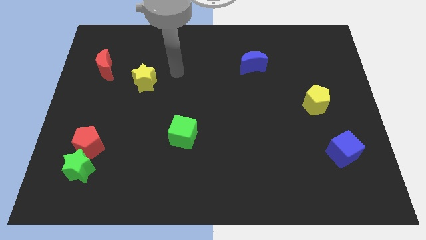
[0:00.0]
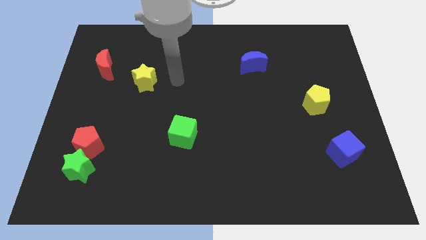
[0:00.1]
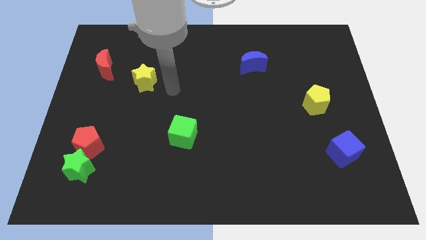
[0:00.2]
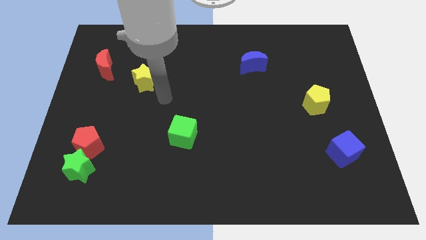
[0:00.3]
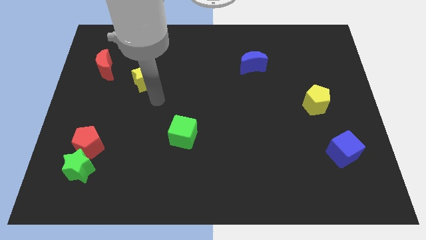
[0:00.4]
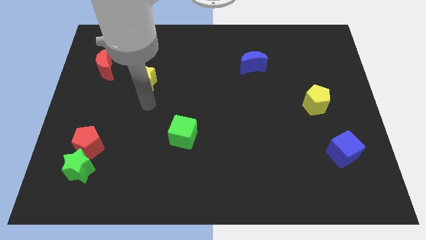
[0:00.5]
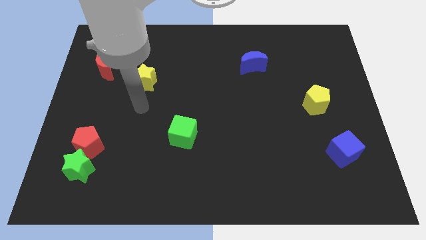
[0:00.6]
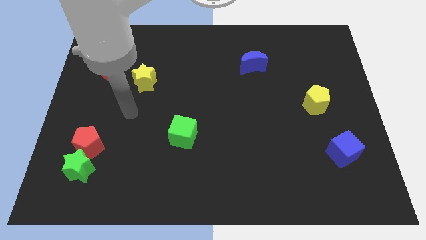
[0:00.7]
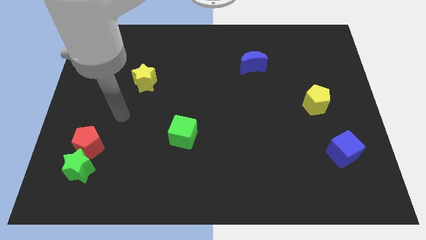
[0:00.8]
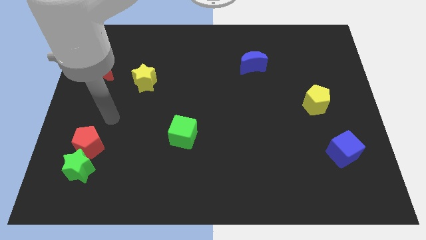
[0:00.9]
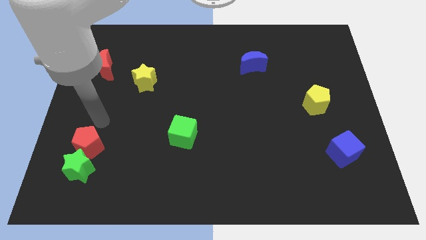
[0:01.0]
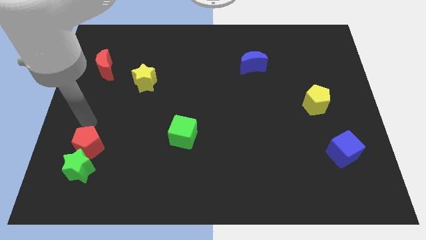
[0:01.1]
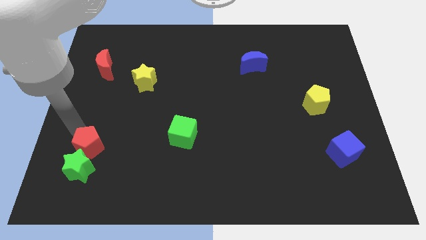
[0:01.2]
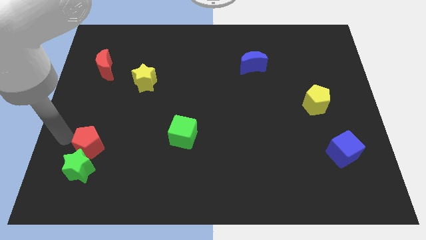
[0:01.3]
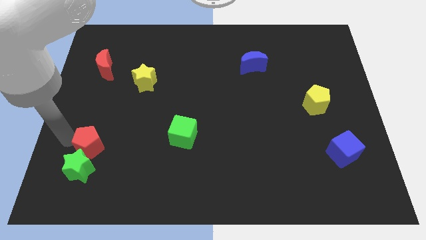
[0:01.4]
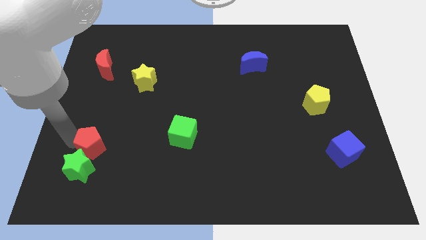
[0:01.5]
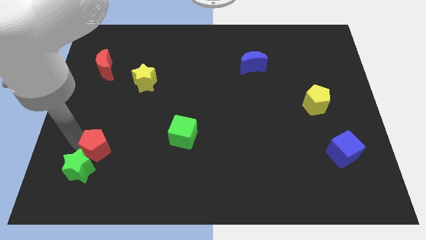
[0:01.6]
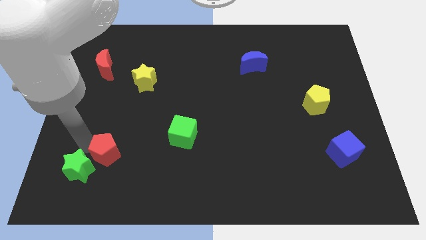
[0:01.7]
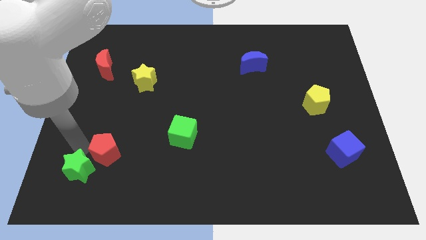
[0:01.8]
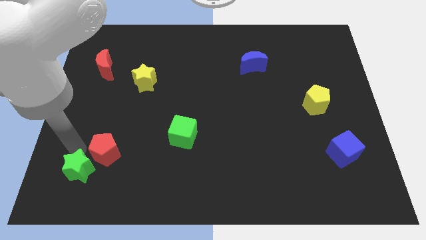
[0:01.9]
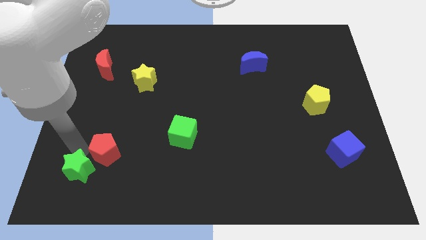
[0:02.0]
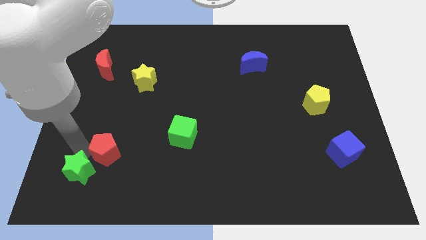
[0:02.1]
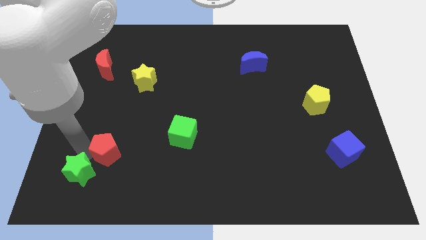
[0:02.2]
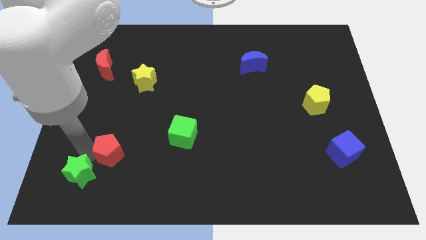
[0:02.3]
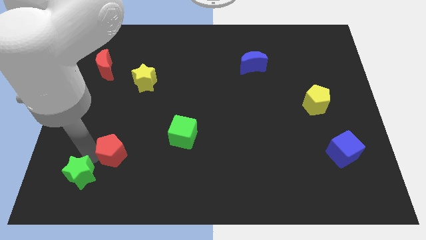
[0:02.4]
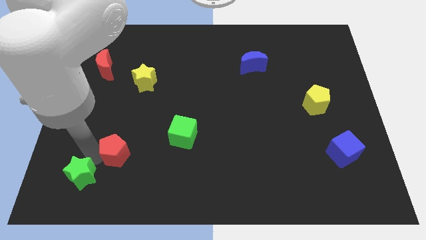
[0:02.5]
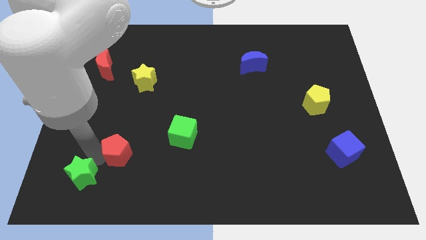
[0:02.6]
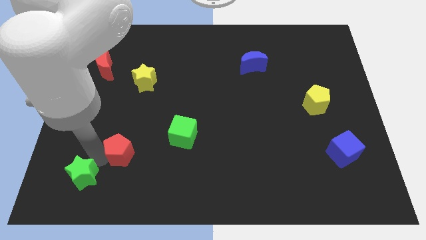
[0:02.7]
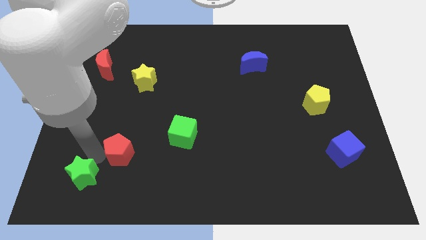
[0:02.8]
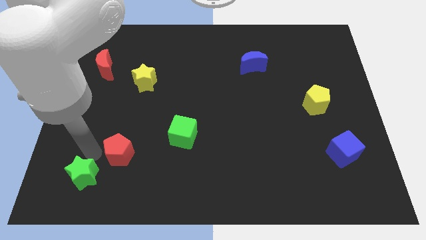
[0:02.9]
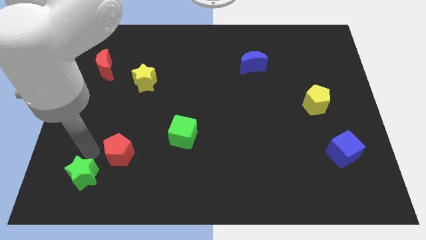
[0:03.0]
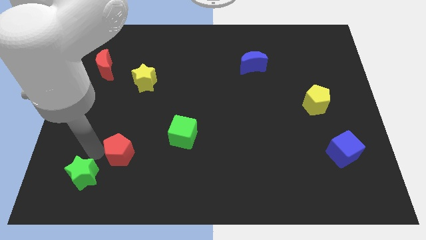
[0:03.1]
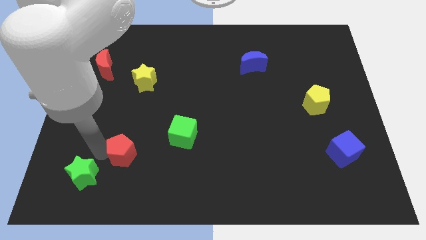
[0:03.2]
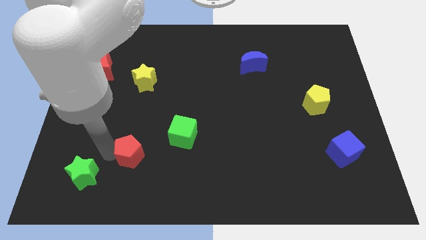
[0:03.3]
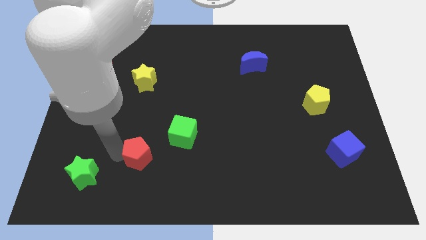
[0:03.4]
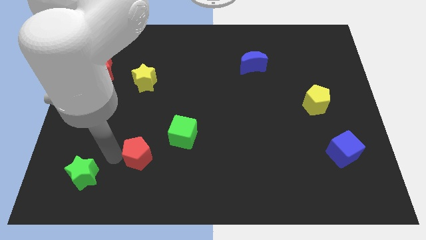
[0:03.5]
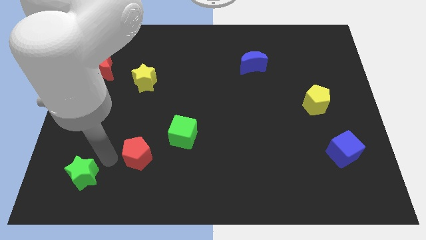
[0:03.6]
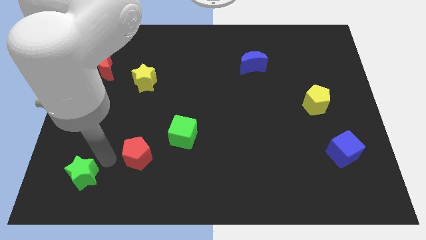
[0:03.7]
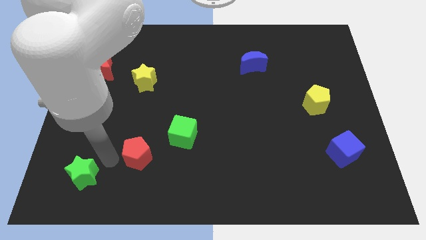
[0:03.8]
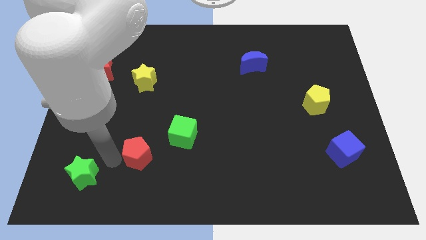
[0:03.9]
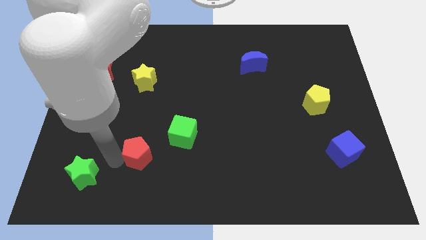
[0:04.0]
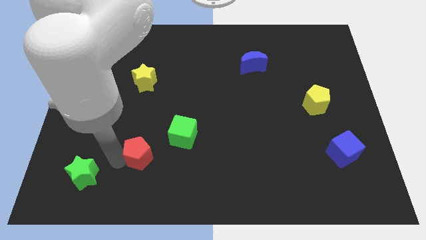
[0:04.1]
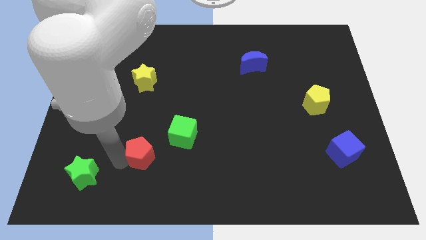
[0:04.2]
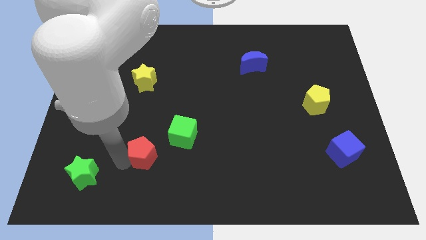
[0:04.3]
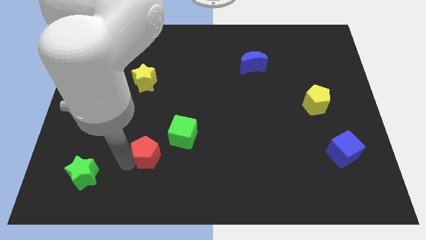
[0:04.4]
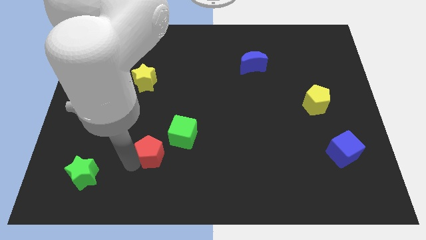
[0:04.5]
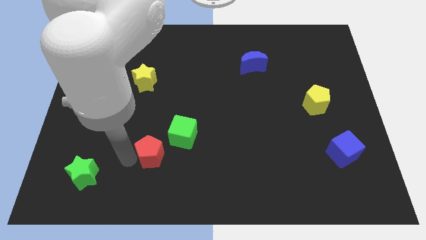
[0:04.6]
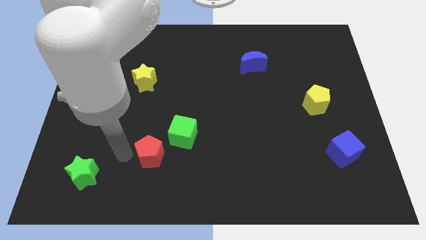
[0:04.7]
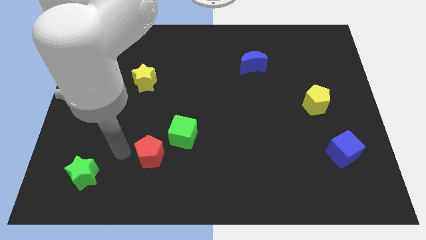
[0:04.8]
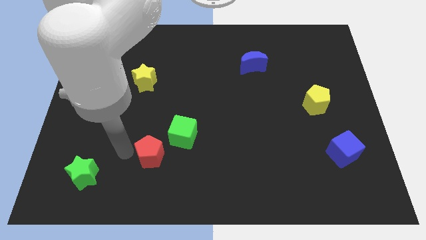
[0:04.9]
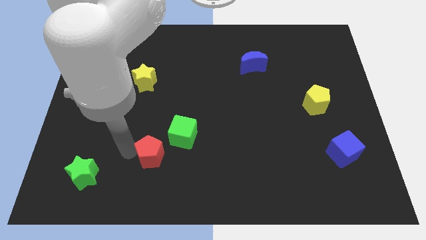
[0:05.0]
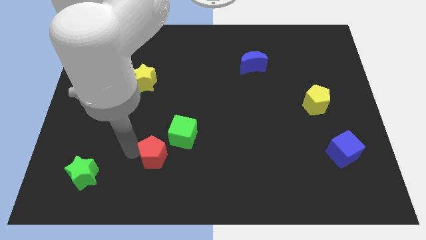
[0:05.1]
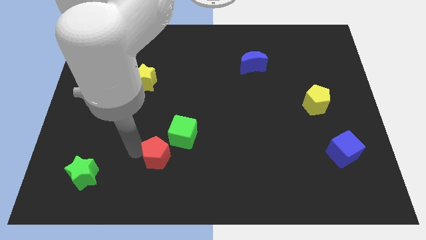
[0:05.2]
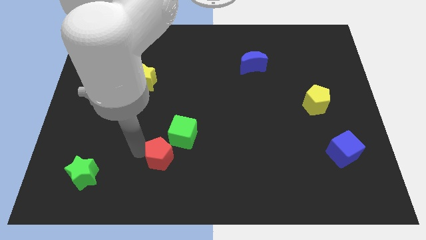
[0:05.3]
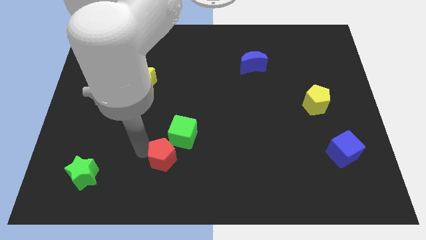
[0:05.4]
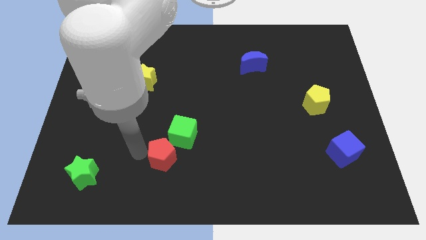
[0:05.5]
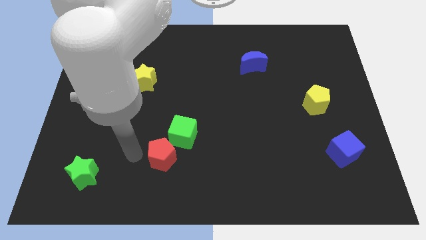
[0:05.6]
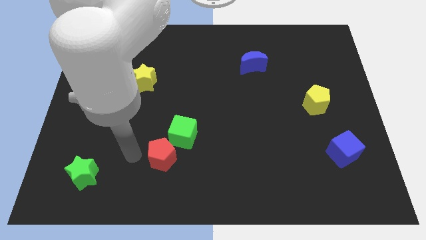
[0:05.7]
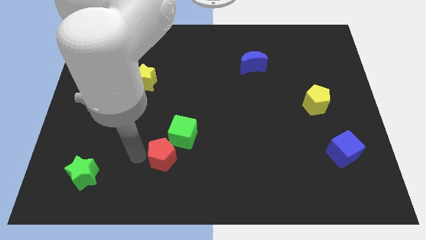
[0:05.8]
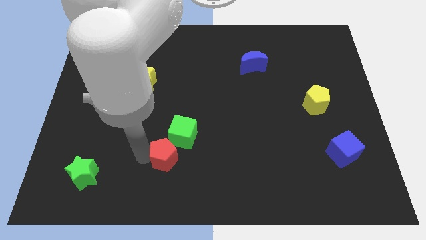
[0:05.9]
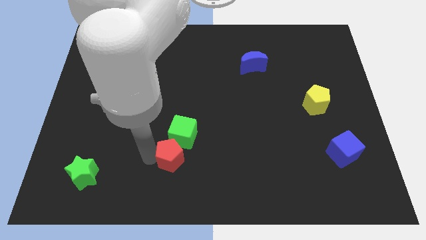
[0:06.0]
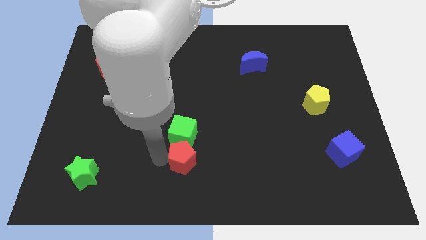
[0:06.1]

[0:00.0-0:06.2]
push the red pentagon right

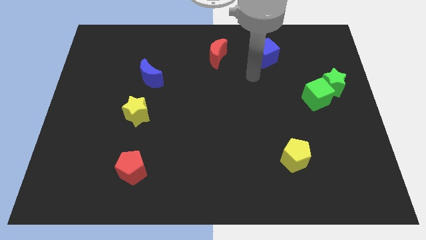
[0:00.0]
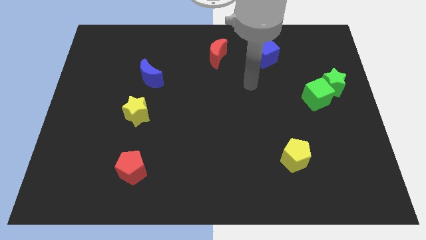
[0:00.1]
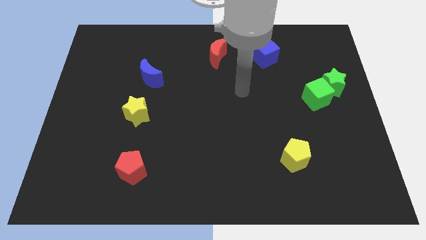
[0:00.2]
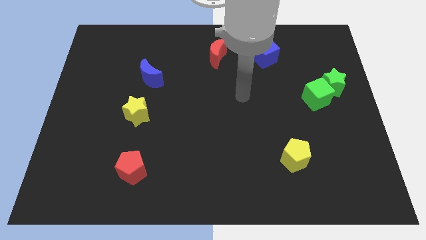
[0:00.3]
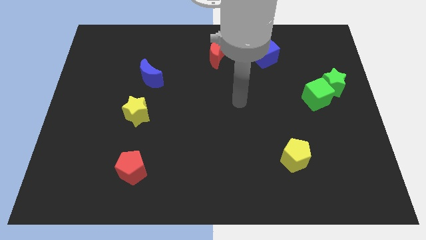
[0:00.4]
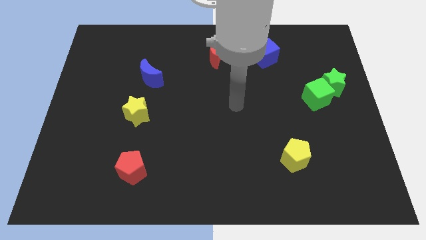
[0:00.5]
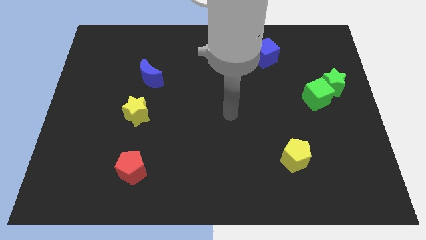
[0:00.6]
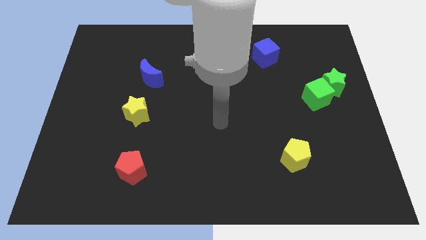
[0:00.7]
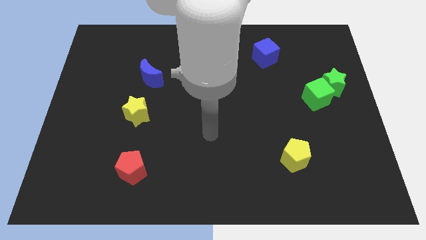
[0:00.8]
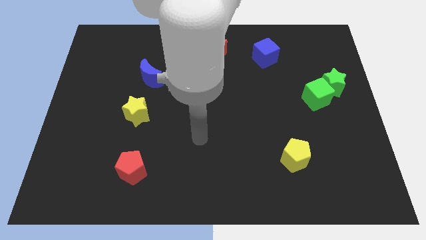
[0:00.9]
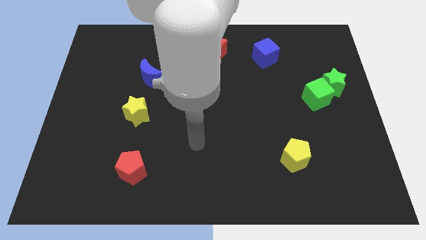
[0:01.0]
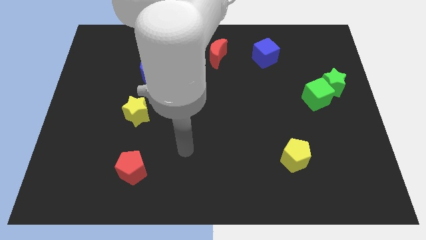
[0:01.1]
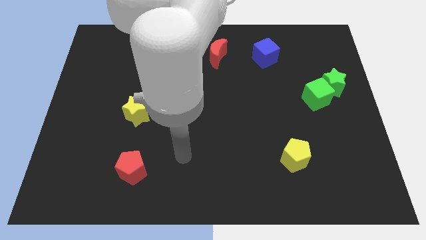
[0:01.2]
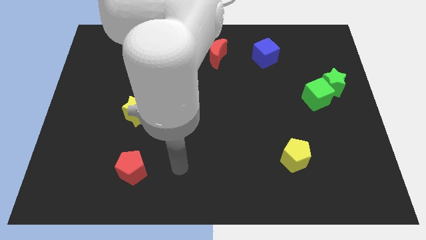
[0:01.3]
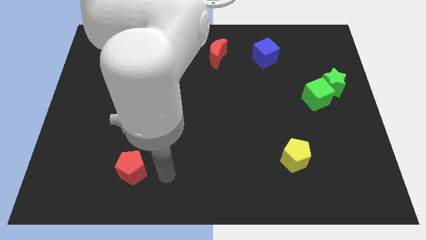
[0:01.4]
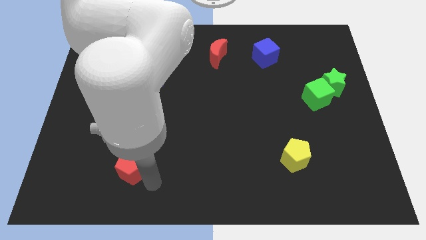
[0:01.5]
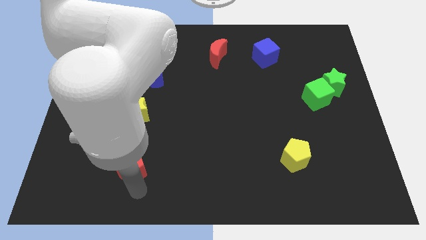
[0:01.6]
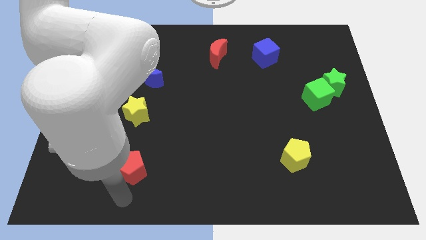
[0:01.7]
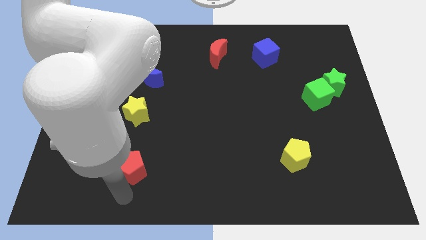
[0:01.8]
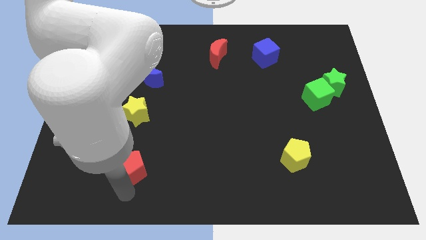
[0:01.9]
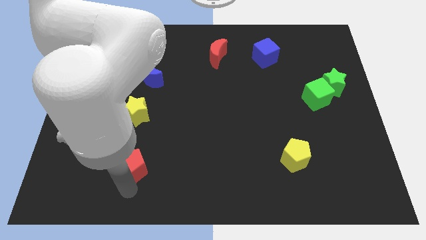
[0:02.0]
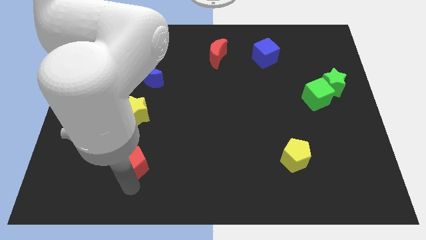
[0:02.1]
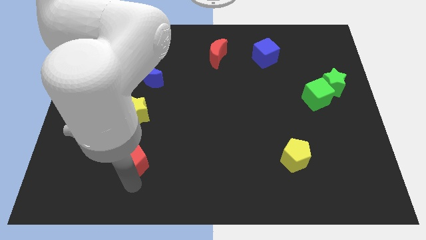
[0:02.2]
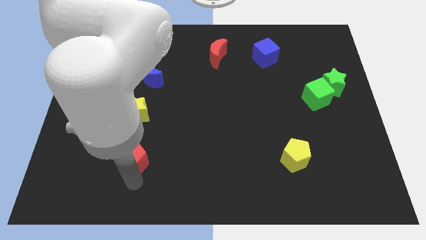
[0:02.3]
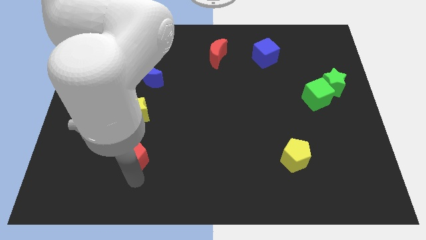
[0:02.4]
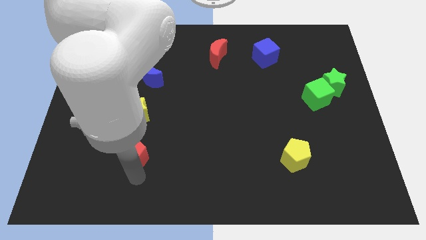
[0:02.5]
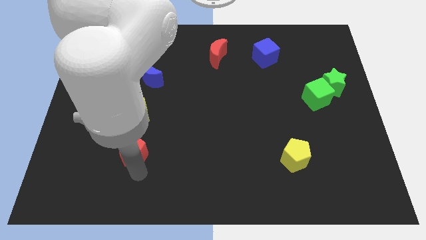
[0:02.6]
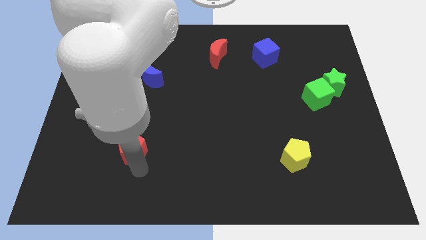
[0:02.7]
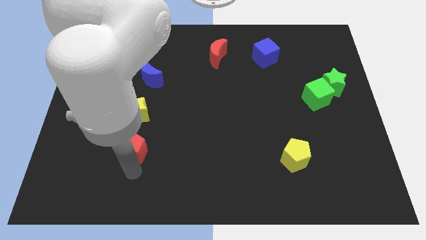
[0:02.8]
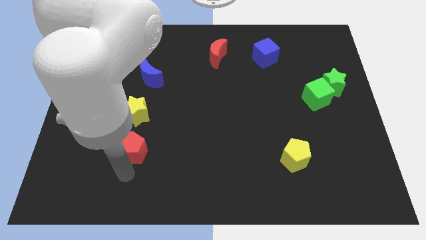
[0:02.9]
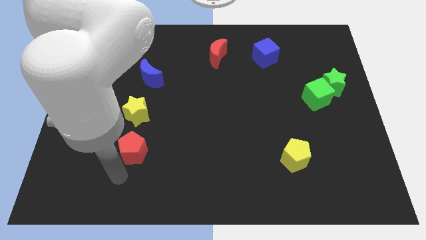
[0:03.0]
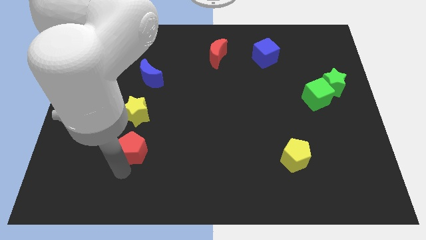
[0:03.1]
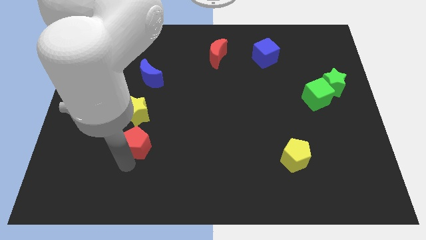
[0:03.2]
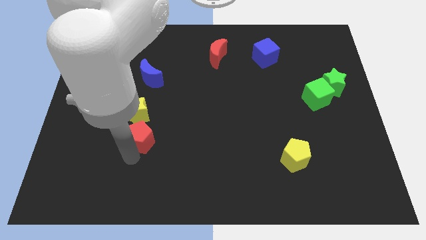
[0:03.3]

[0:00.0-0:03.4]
slide the red pentagon upwards a little
